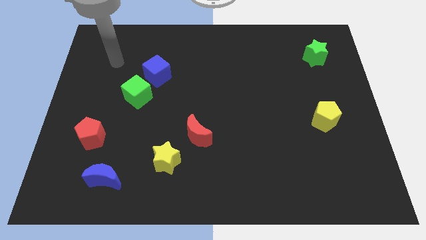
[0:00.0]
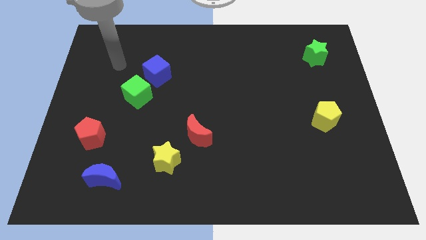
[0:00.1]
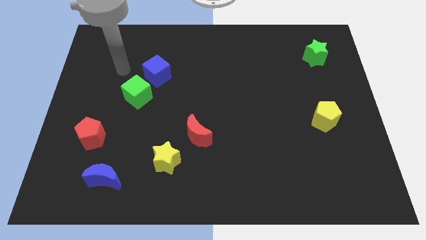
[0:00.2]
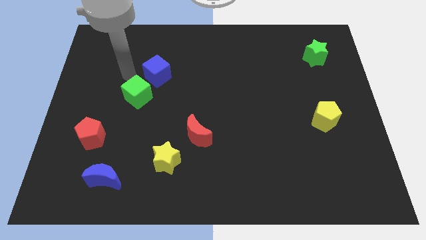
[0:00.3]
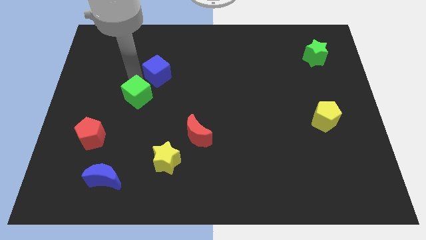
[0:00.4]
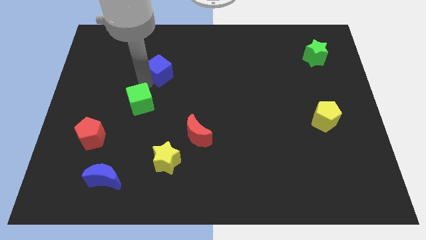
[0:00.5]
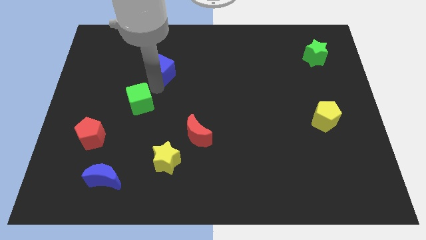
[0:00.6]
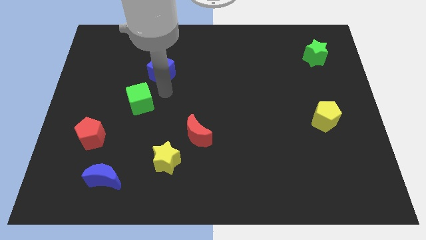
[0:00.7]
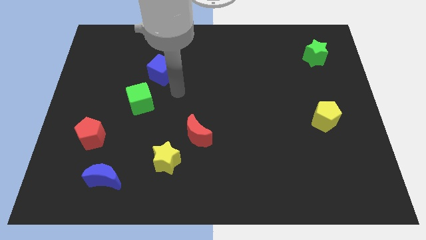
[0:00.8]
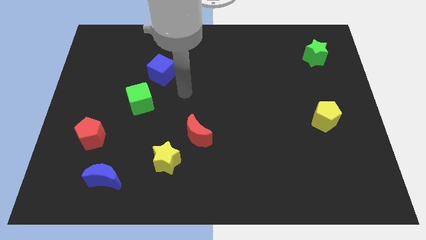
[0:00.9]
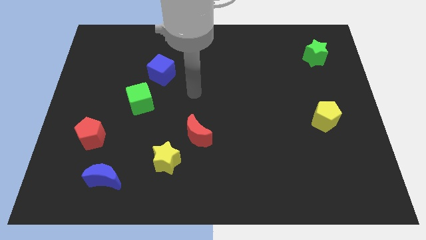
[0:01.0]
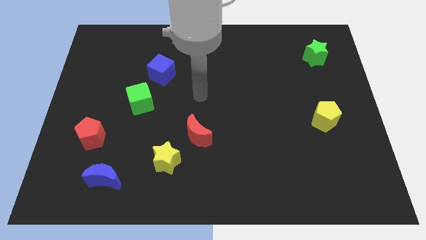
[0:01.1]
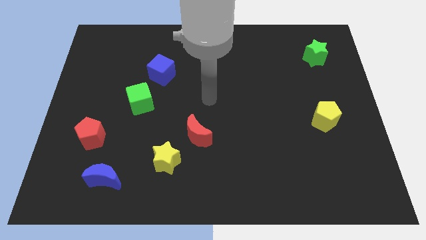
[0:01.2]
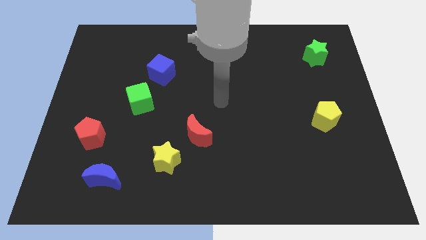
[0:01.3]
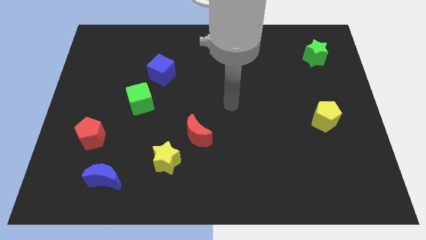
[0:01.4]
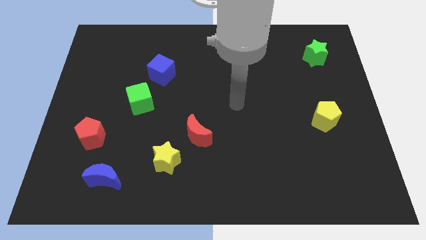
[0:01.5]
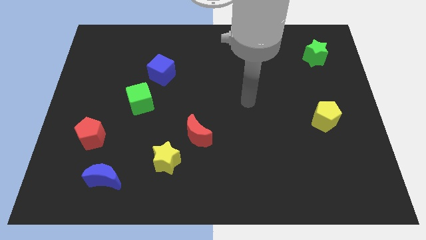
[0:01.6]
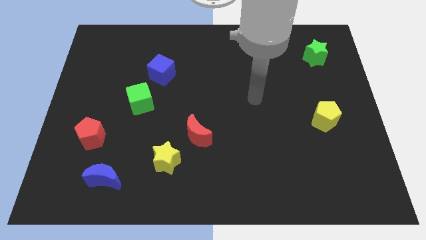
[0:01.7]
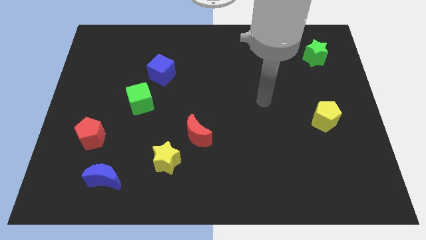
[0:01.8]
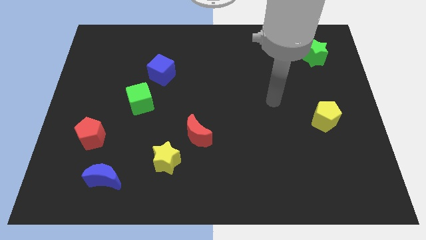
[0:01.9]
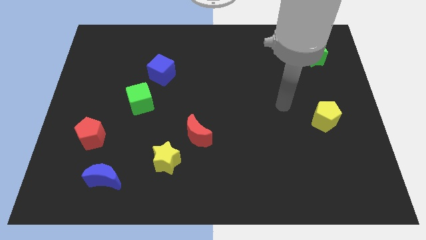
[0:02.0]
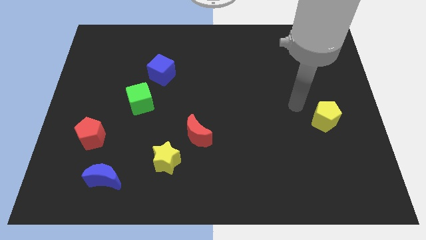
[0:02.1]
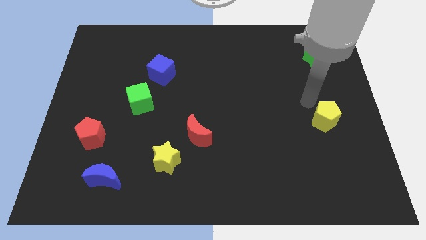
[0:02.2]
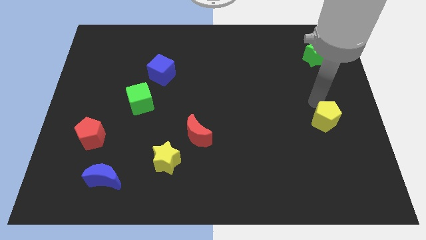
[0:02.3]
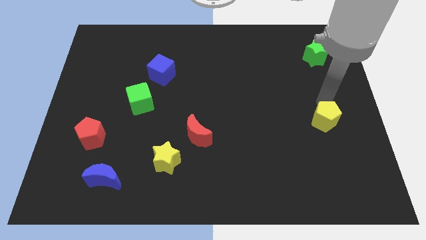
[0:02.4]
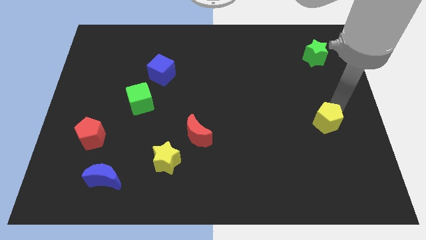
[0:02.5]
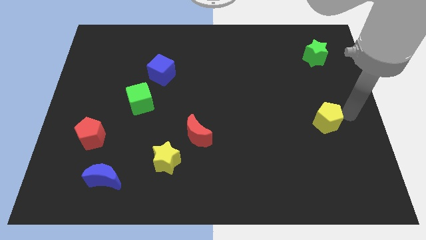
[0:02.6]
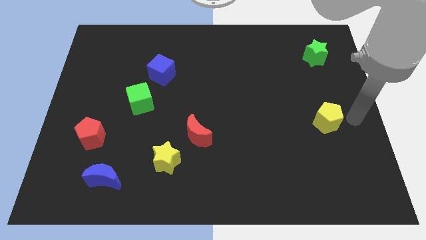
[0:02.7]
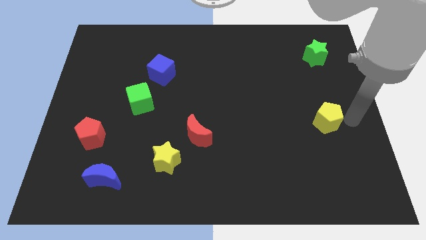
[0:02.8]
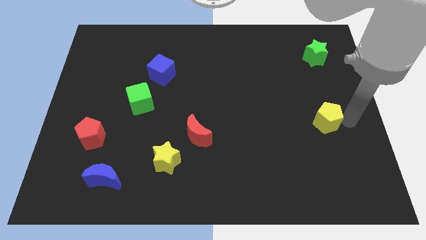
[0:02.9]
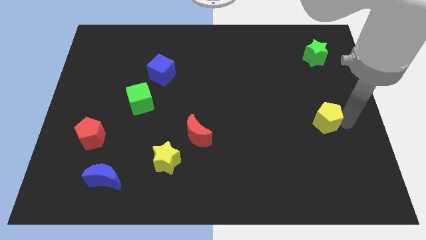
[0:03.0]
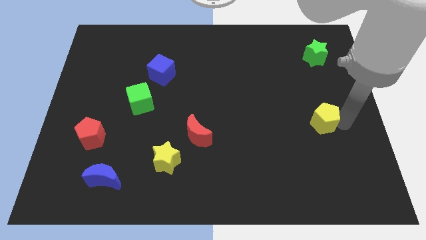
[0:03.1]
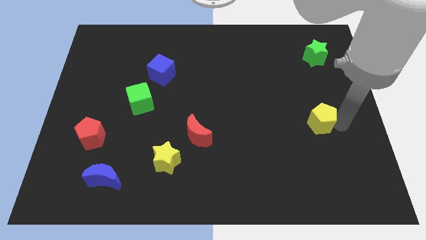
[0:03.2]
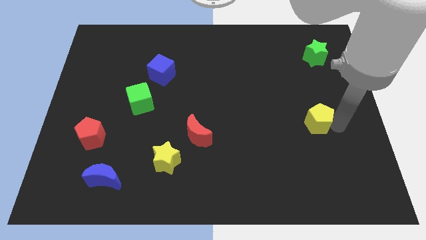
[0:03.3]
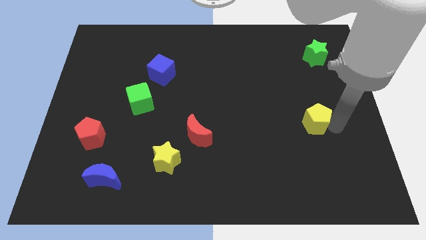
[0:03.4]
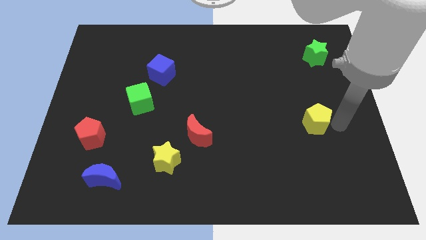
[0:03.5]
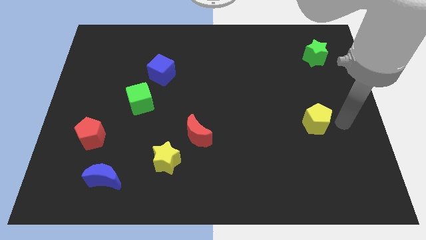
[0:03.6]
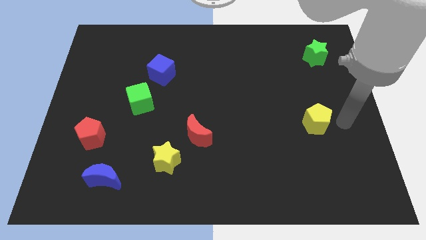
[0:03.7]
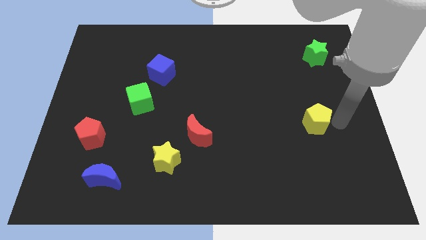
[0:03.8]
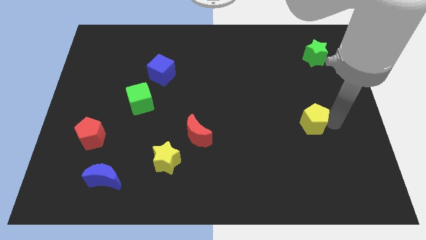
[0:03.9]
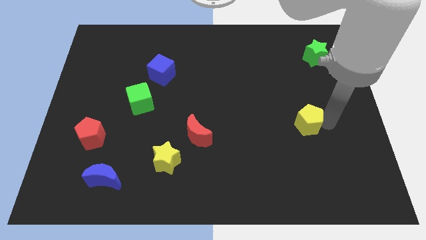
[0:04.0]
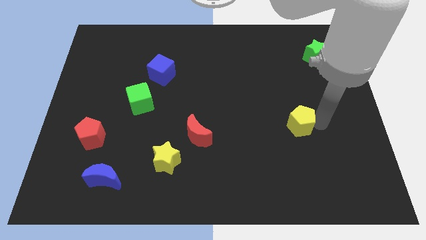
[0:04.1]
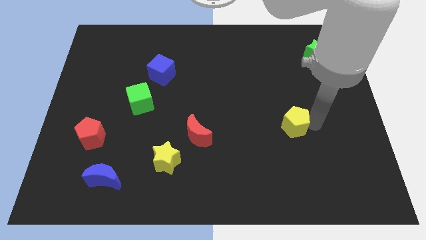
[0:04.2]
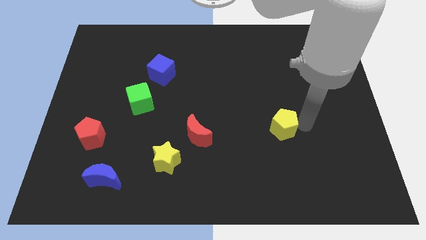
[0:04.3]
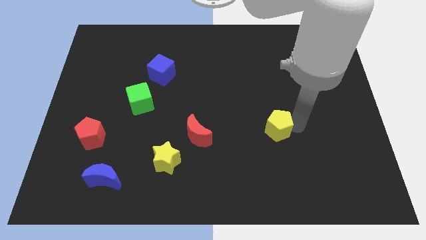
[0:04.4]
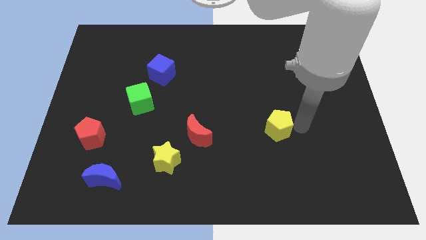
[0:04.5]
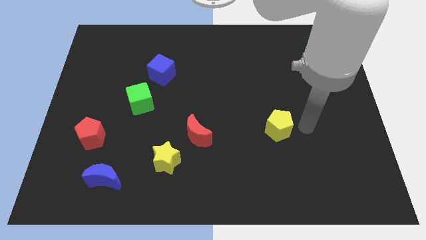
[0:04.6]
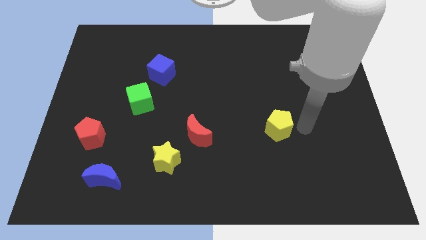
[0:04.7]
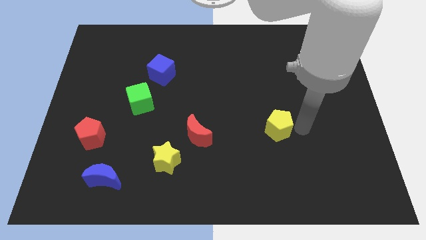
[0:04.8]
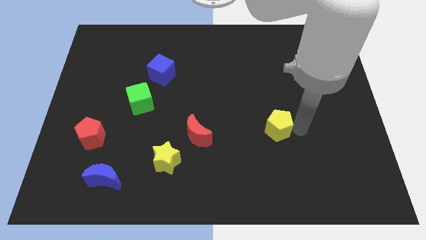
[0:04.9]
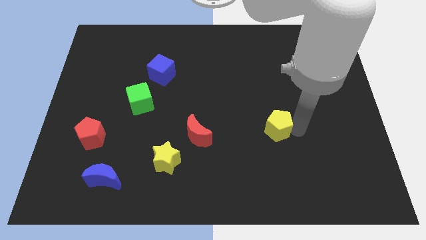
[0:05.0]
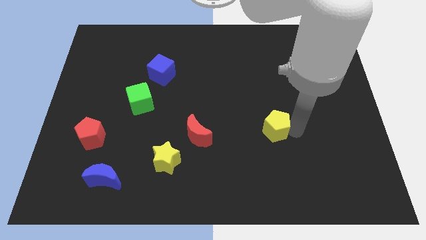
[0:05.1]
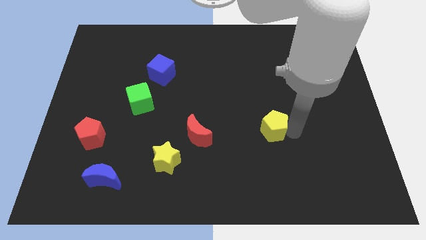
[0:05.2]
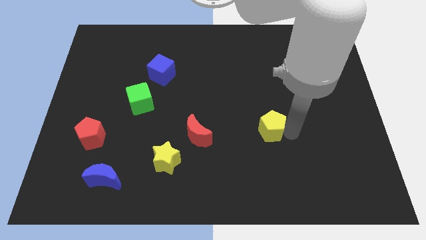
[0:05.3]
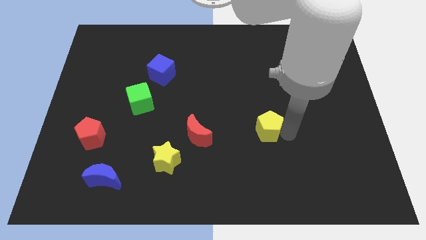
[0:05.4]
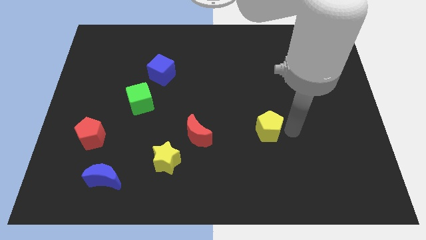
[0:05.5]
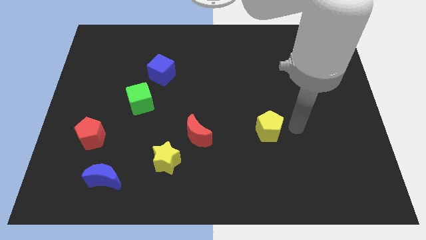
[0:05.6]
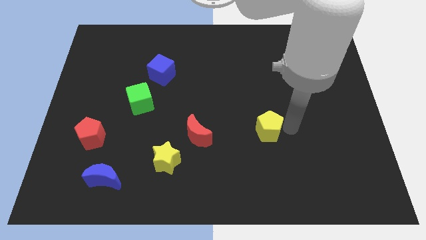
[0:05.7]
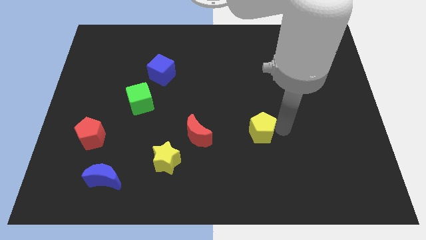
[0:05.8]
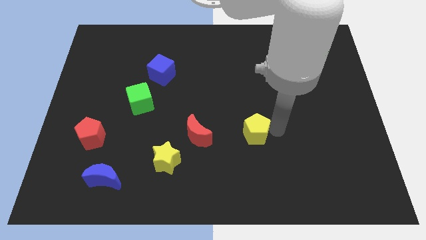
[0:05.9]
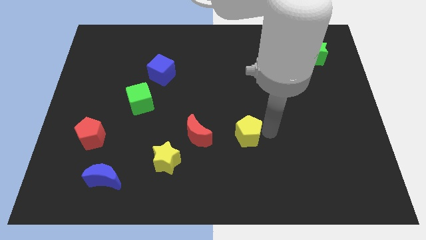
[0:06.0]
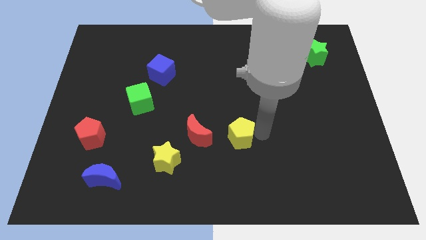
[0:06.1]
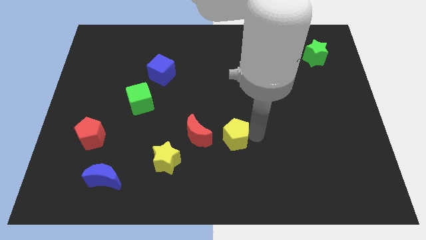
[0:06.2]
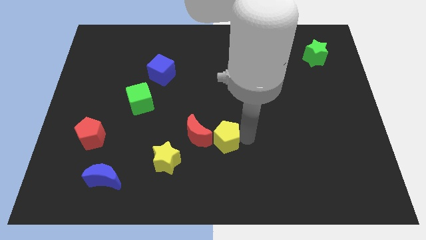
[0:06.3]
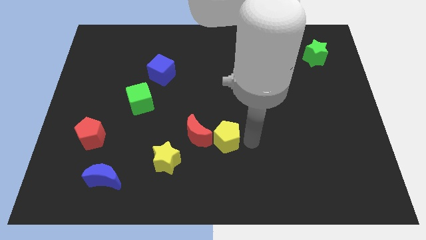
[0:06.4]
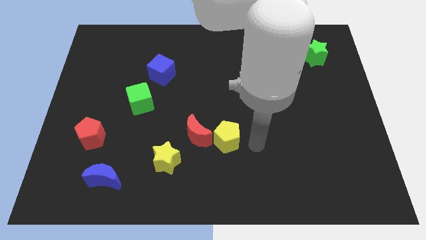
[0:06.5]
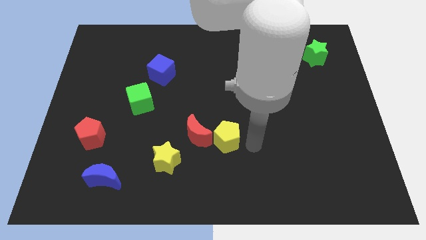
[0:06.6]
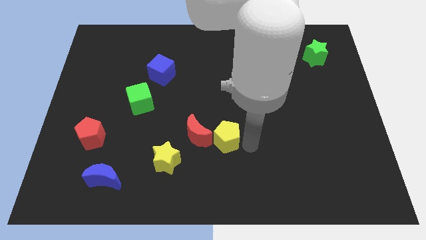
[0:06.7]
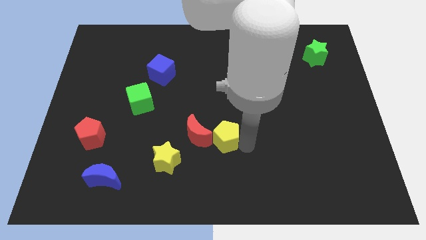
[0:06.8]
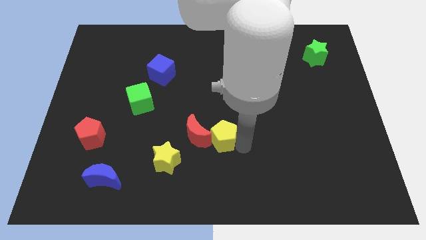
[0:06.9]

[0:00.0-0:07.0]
slide the yellow pentagon to the red moon
